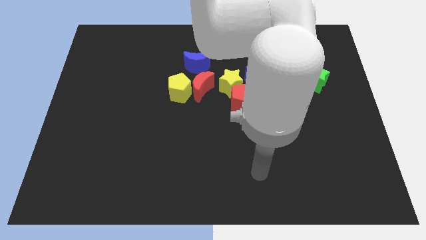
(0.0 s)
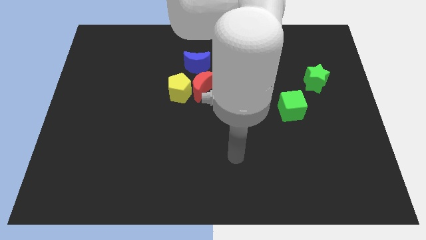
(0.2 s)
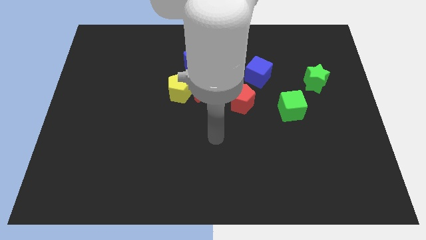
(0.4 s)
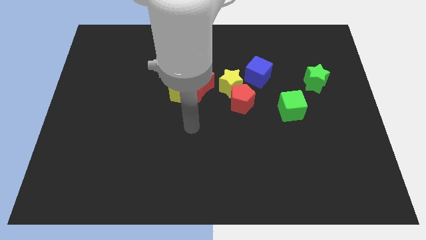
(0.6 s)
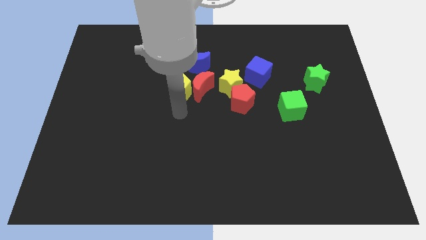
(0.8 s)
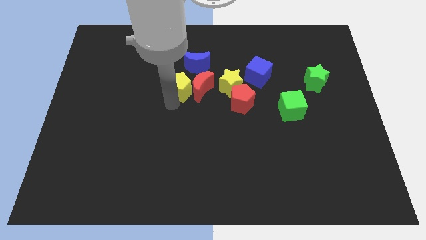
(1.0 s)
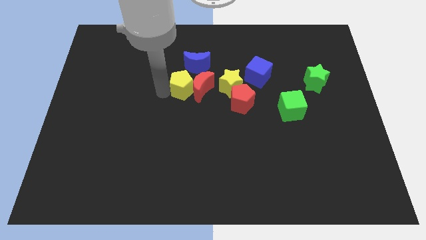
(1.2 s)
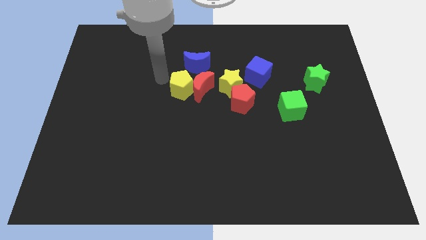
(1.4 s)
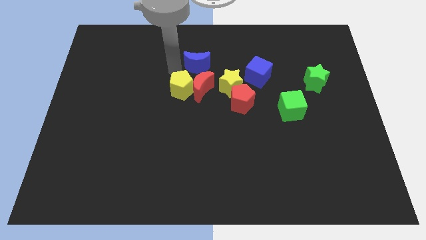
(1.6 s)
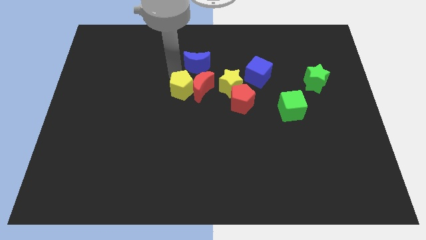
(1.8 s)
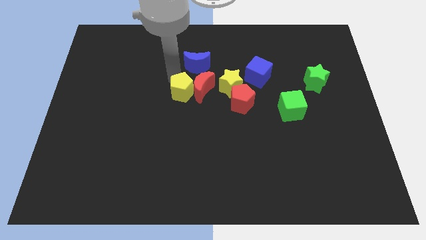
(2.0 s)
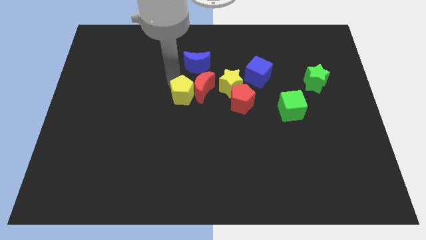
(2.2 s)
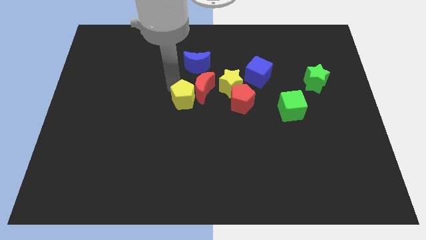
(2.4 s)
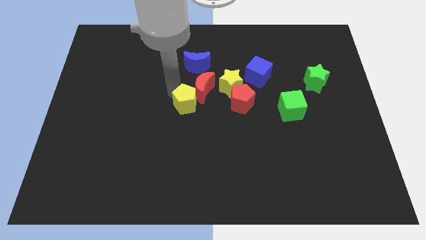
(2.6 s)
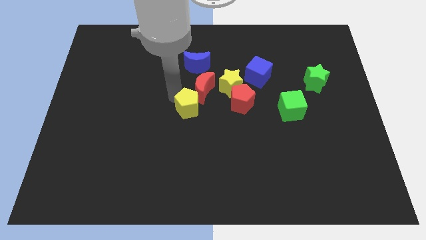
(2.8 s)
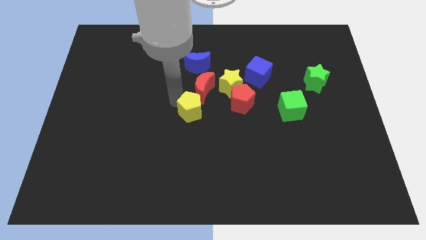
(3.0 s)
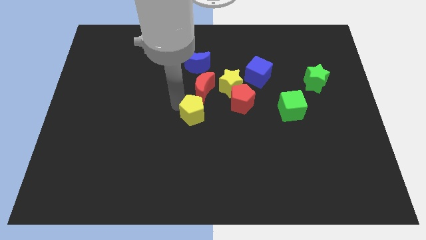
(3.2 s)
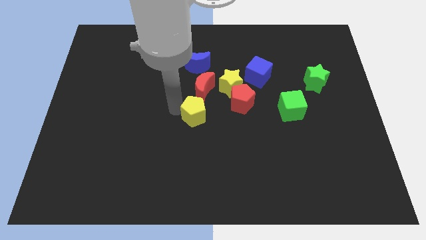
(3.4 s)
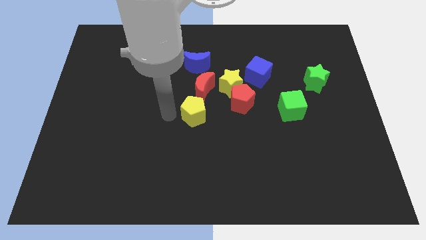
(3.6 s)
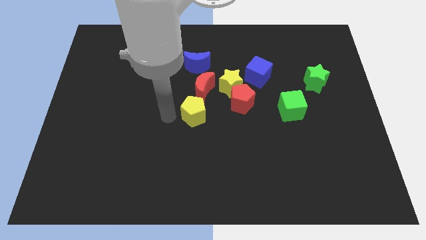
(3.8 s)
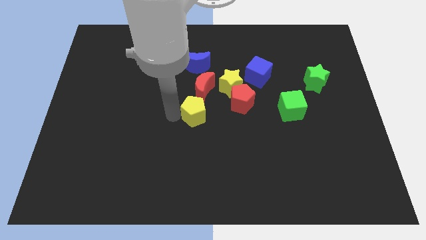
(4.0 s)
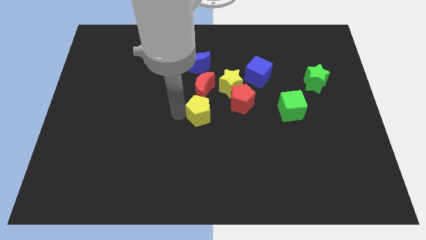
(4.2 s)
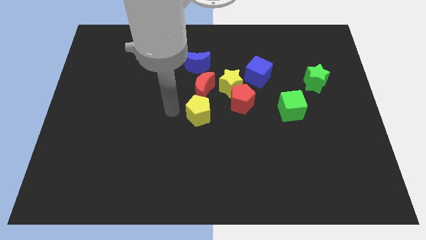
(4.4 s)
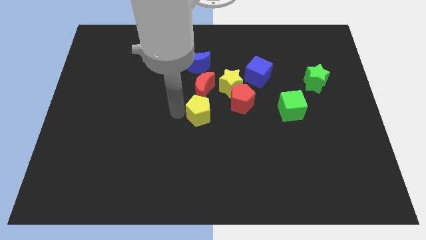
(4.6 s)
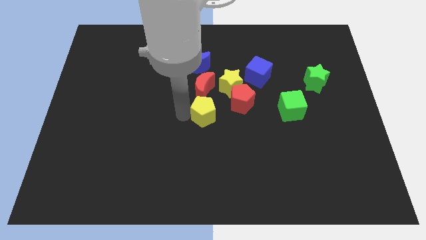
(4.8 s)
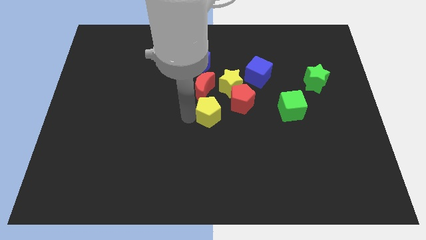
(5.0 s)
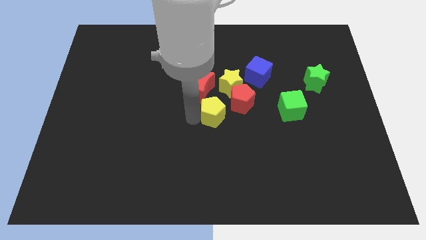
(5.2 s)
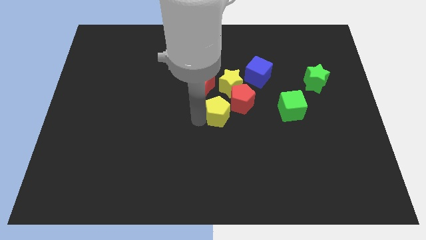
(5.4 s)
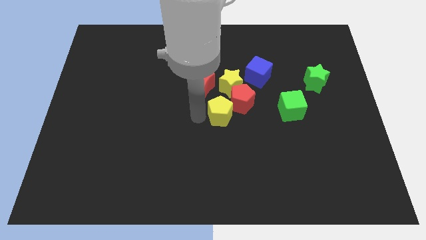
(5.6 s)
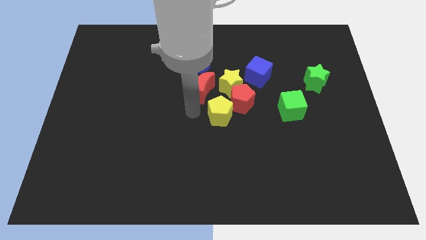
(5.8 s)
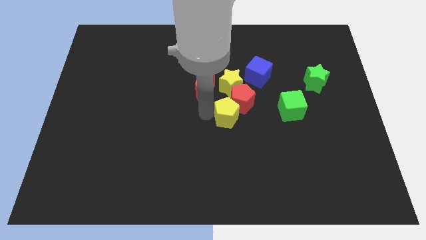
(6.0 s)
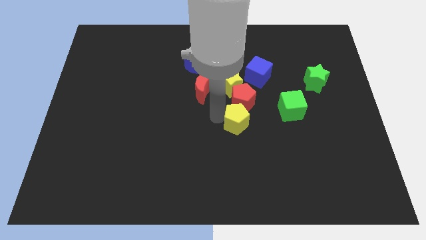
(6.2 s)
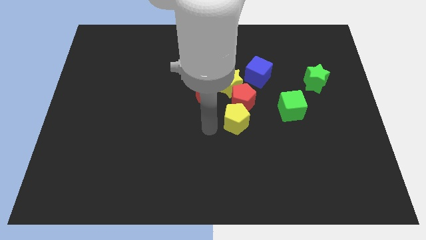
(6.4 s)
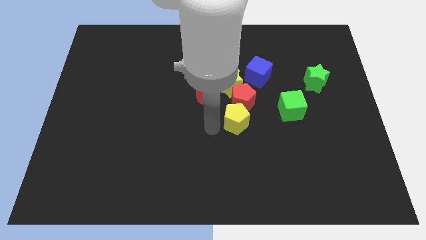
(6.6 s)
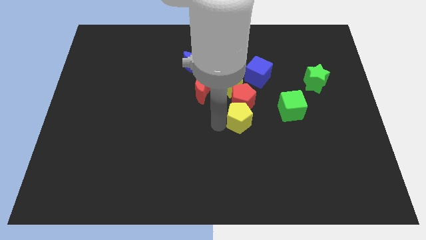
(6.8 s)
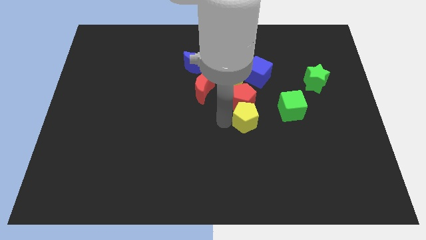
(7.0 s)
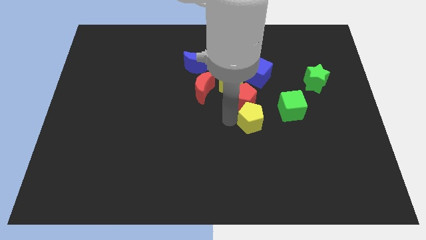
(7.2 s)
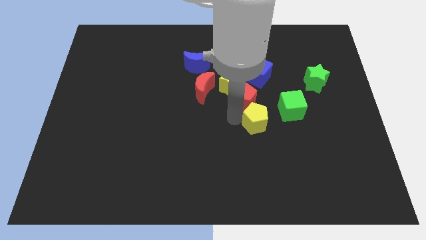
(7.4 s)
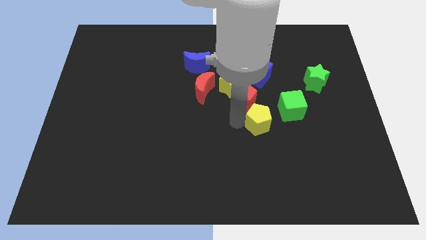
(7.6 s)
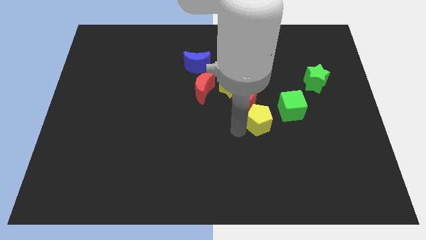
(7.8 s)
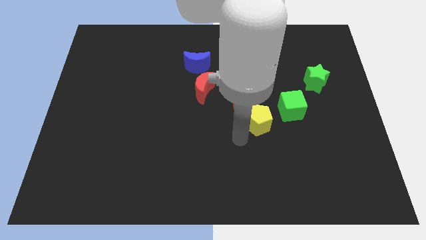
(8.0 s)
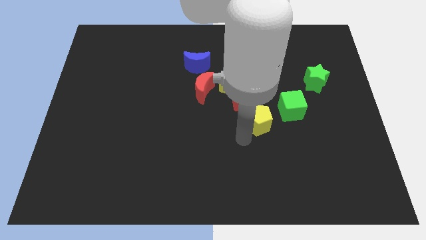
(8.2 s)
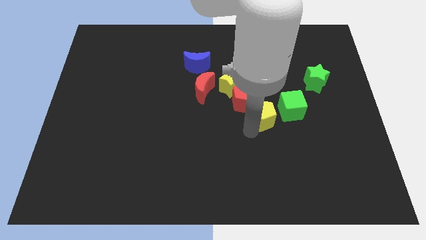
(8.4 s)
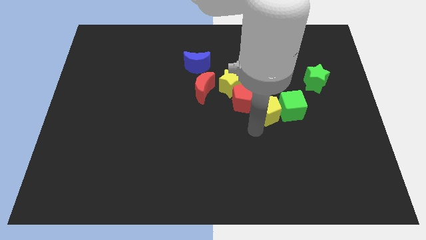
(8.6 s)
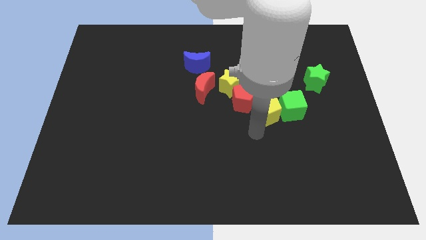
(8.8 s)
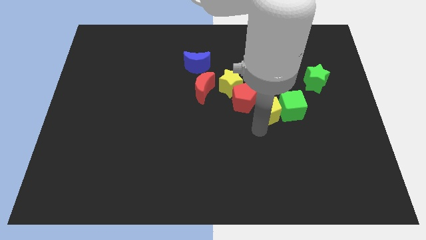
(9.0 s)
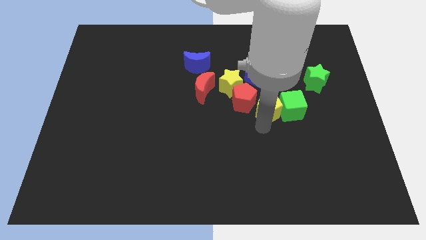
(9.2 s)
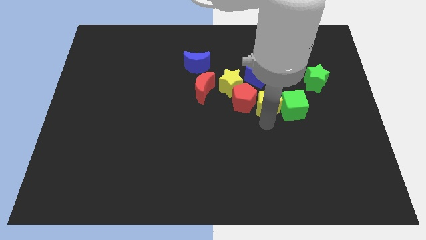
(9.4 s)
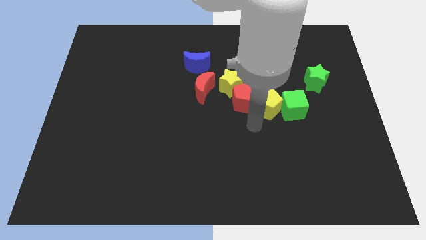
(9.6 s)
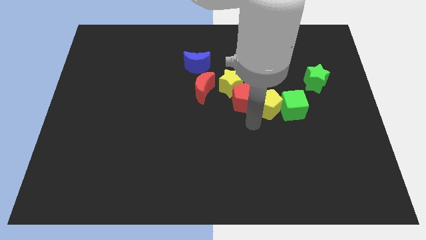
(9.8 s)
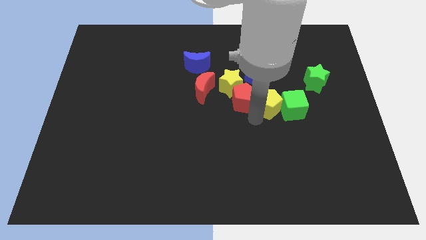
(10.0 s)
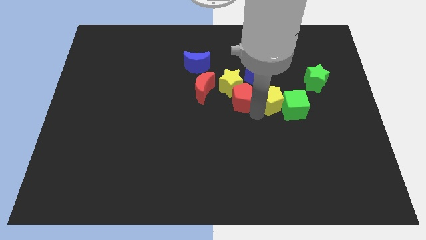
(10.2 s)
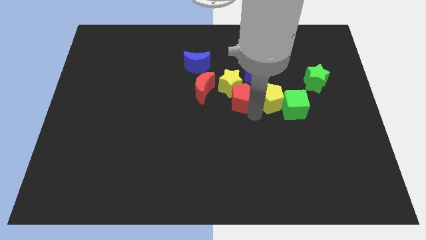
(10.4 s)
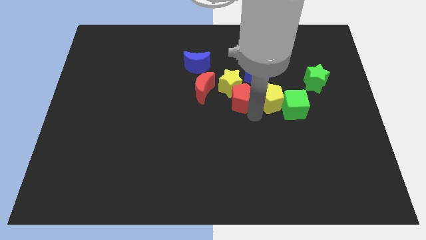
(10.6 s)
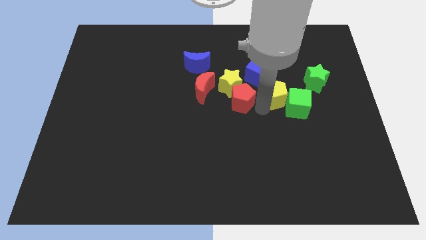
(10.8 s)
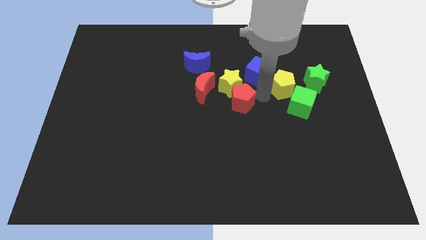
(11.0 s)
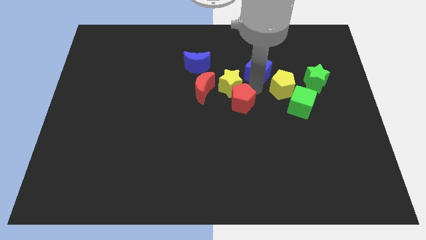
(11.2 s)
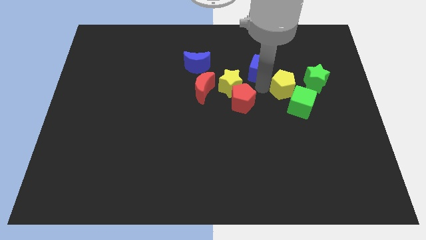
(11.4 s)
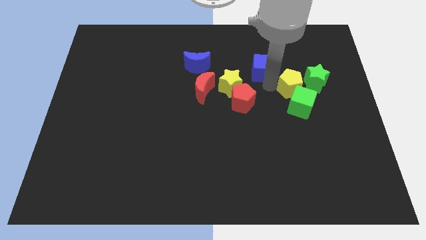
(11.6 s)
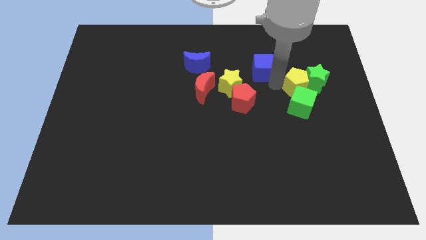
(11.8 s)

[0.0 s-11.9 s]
push the yellow pentagon to the top right side of the green cube
